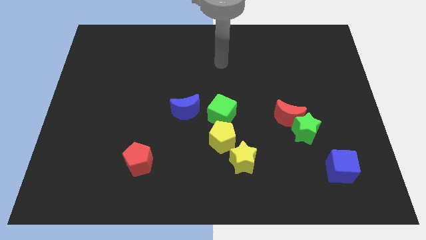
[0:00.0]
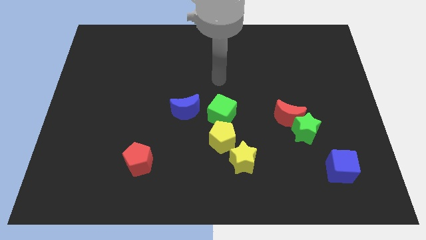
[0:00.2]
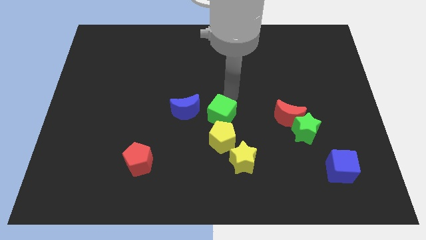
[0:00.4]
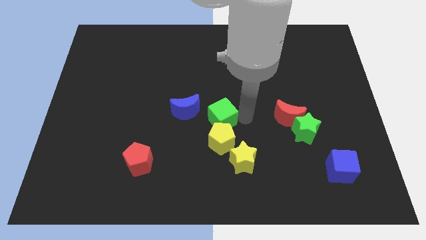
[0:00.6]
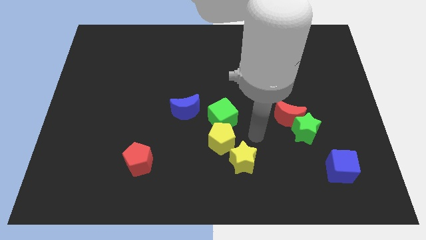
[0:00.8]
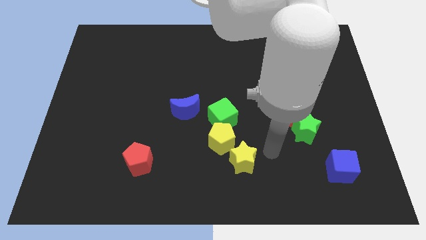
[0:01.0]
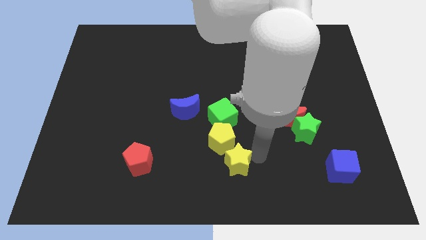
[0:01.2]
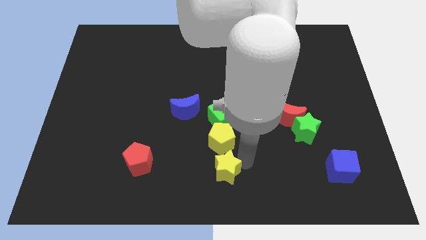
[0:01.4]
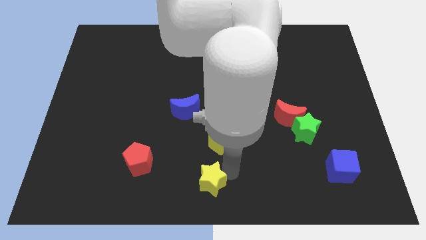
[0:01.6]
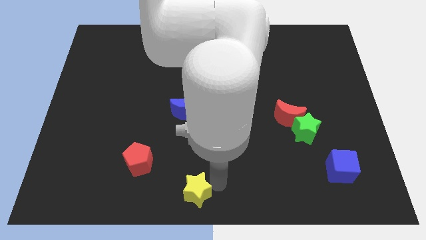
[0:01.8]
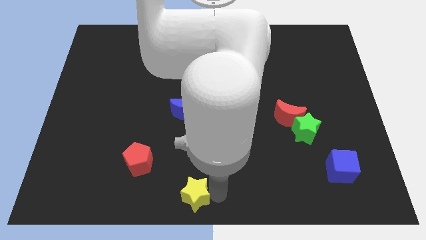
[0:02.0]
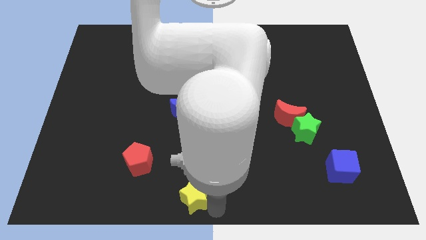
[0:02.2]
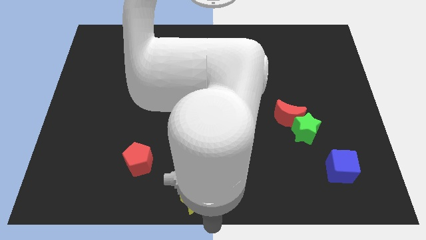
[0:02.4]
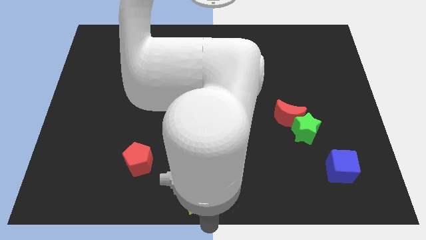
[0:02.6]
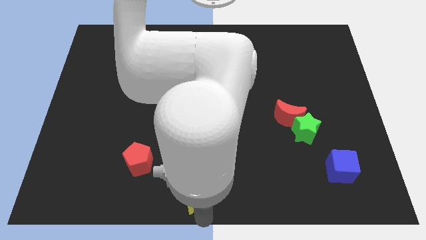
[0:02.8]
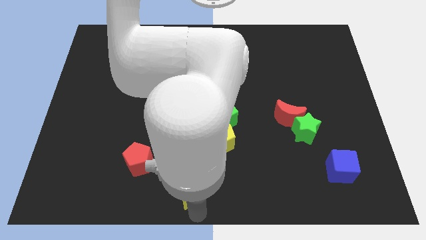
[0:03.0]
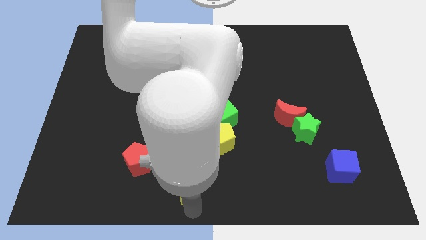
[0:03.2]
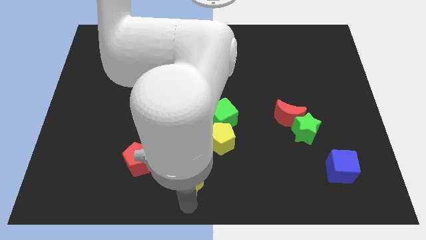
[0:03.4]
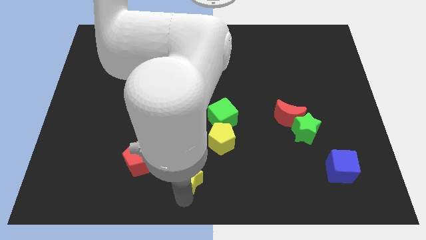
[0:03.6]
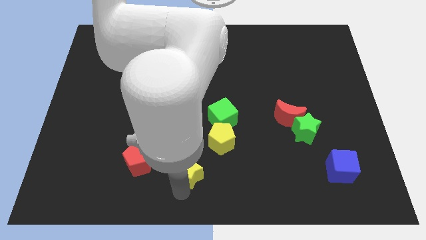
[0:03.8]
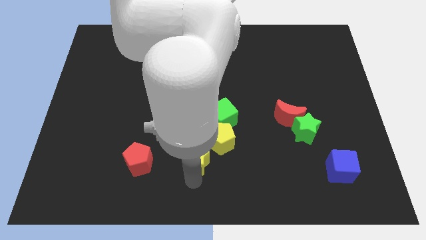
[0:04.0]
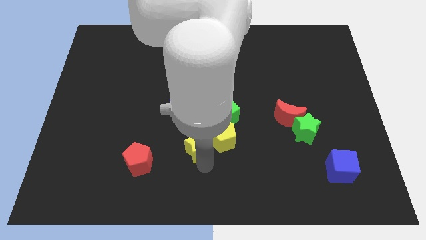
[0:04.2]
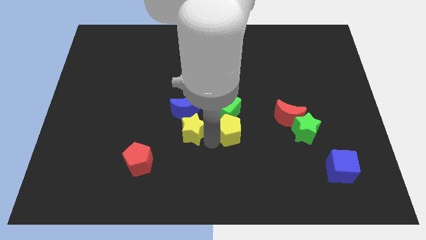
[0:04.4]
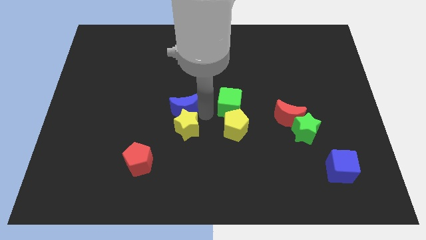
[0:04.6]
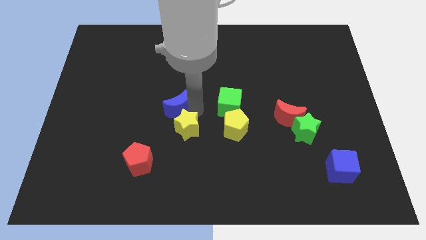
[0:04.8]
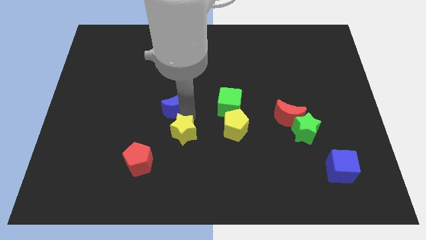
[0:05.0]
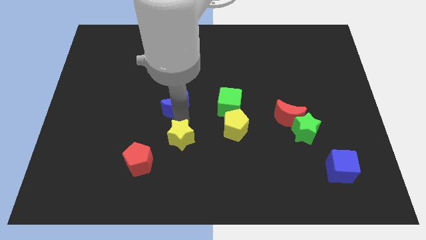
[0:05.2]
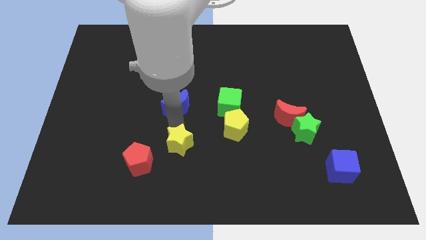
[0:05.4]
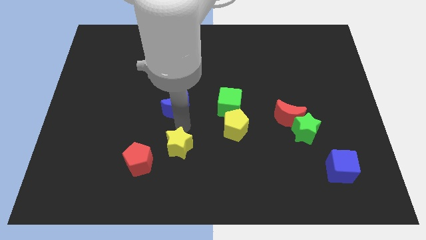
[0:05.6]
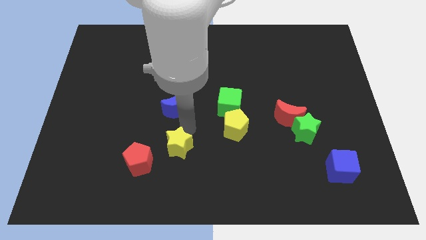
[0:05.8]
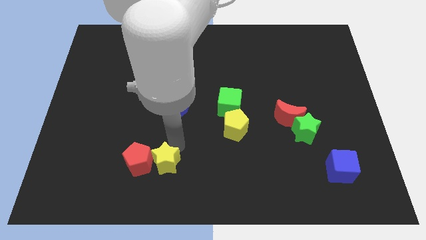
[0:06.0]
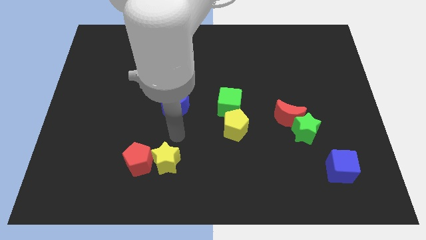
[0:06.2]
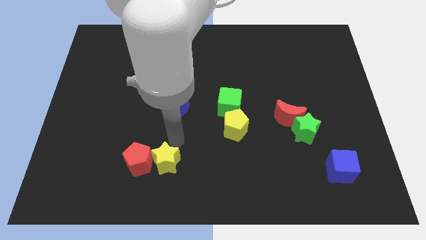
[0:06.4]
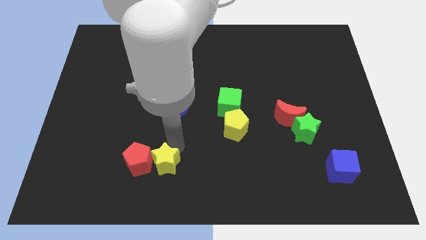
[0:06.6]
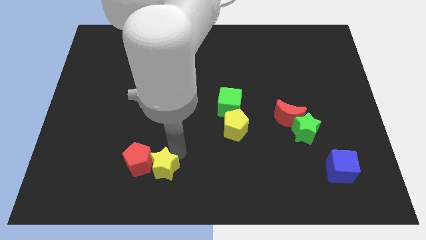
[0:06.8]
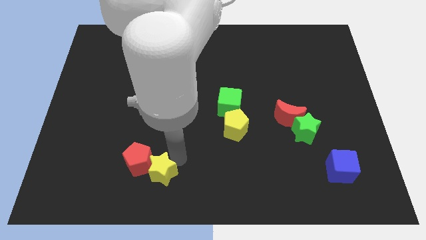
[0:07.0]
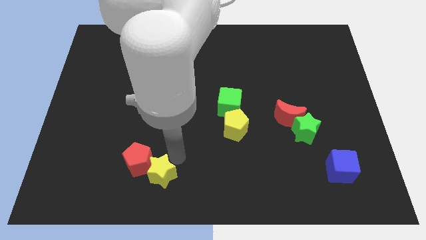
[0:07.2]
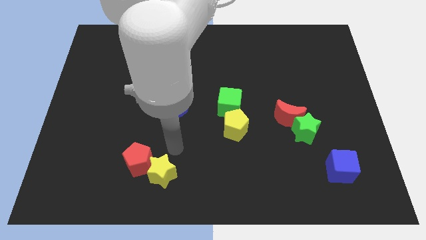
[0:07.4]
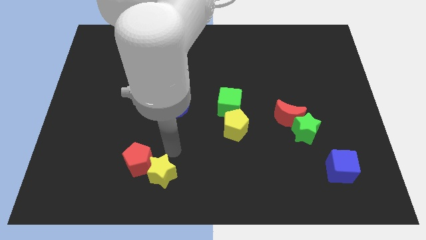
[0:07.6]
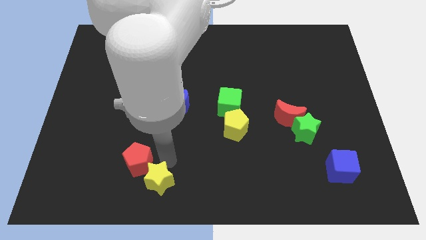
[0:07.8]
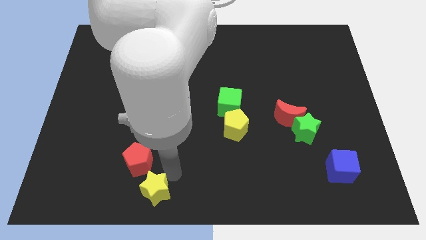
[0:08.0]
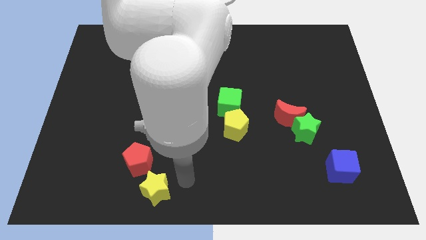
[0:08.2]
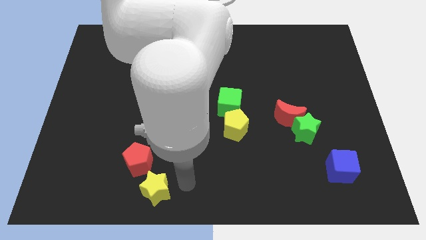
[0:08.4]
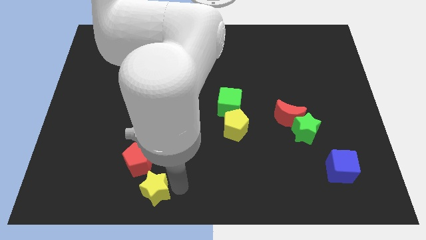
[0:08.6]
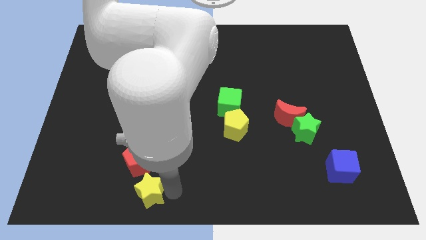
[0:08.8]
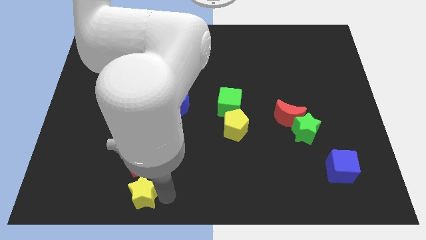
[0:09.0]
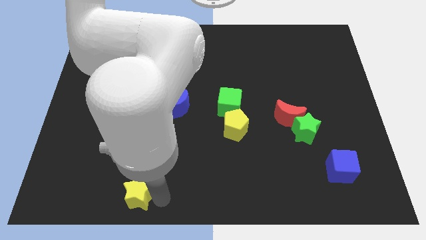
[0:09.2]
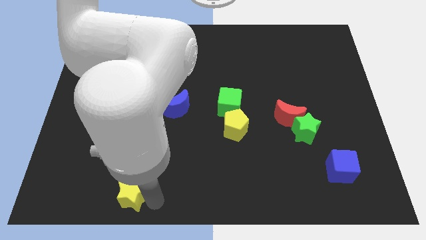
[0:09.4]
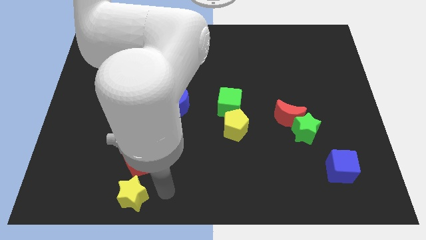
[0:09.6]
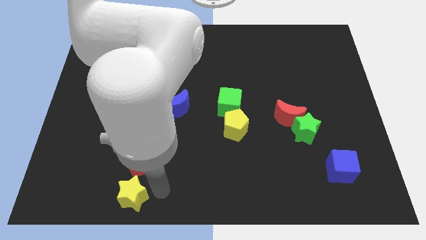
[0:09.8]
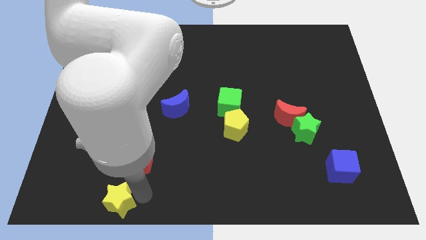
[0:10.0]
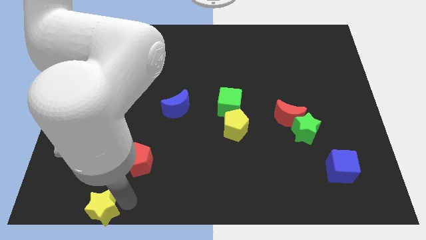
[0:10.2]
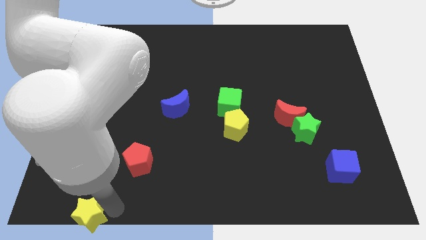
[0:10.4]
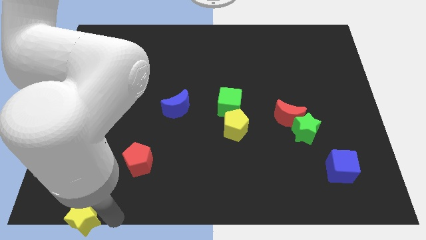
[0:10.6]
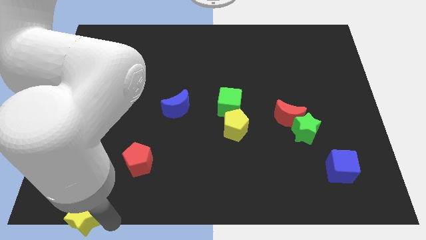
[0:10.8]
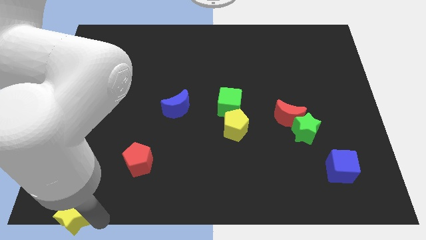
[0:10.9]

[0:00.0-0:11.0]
move the yellow star to the bottom left
